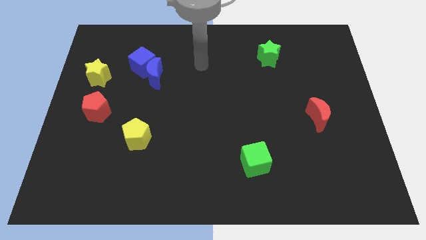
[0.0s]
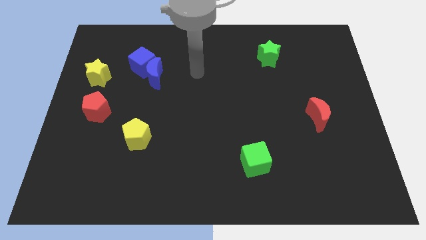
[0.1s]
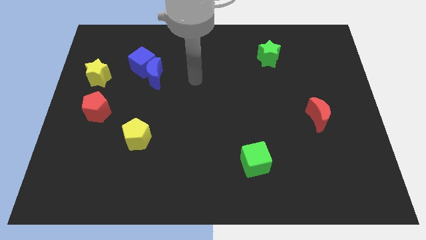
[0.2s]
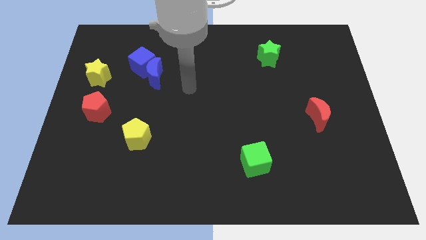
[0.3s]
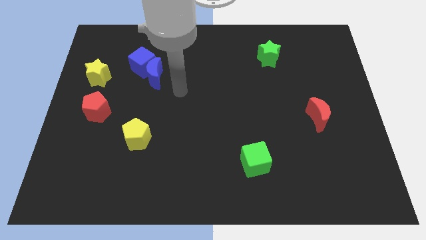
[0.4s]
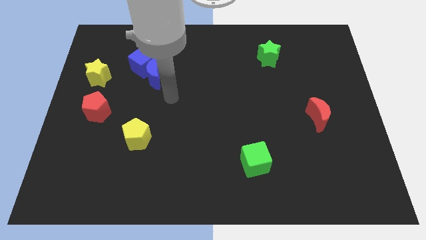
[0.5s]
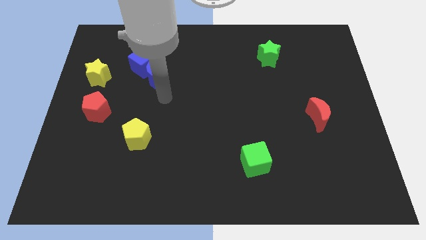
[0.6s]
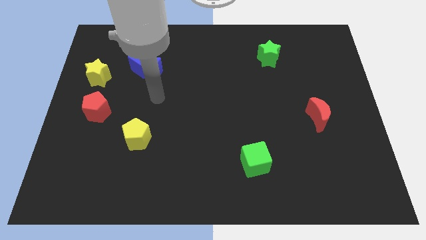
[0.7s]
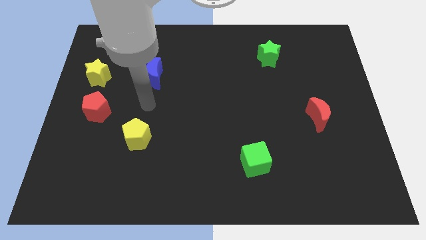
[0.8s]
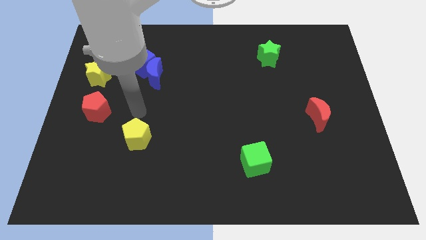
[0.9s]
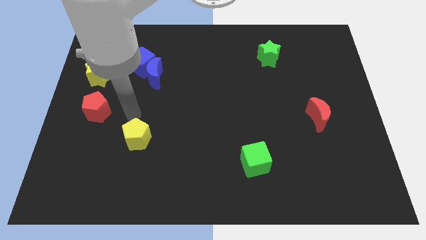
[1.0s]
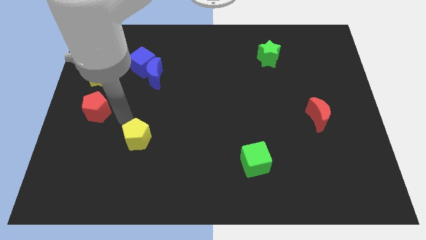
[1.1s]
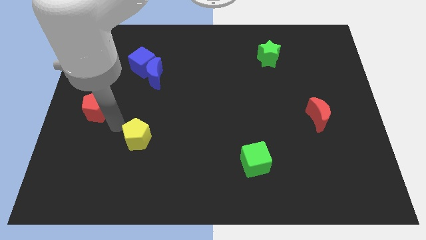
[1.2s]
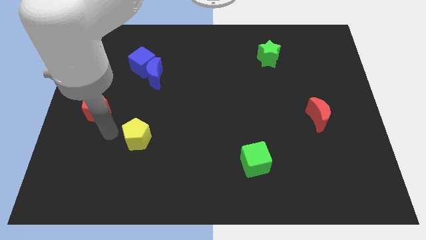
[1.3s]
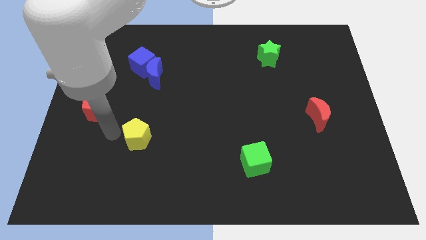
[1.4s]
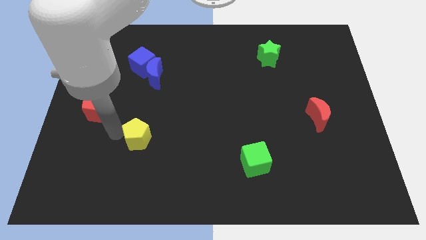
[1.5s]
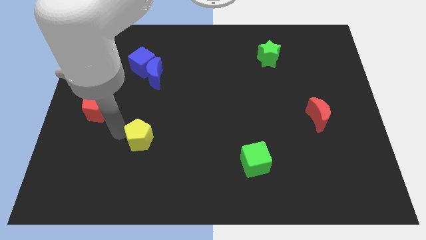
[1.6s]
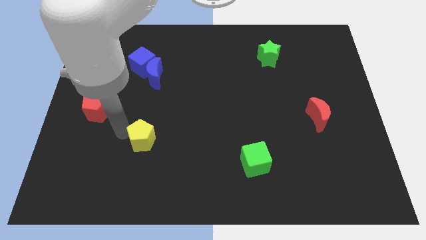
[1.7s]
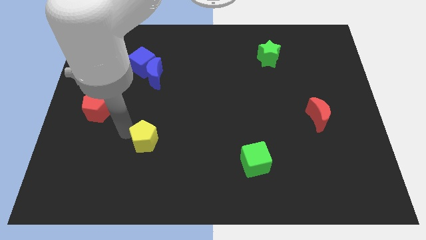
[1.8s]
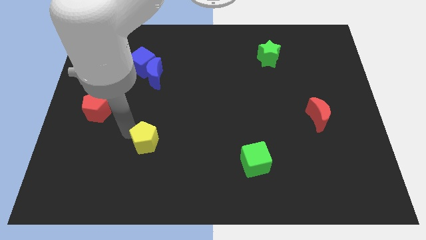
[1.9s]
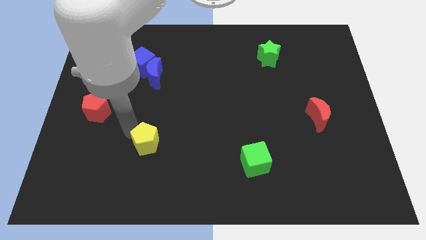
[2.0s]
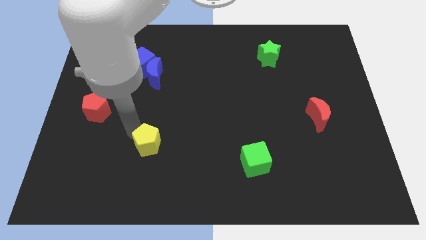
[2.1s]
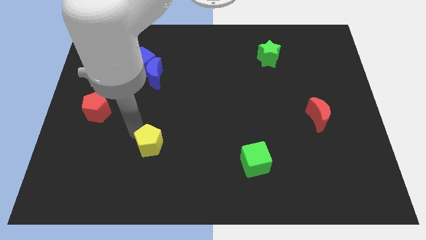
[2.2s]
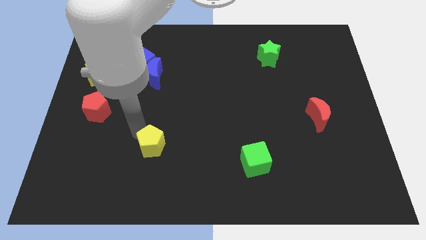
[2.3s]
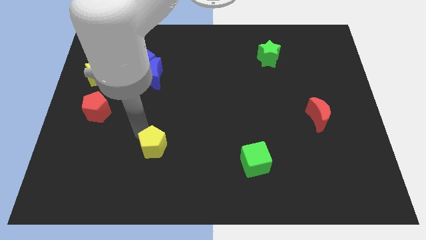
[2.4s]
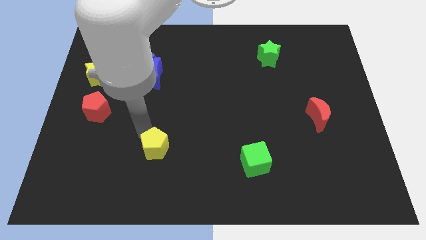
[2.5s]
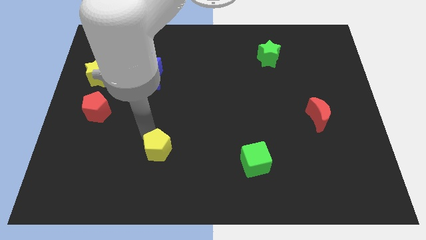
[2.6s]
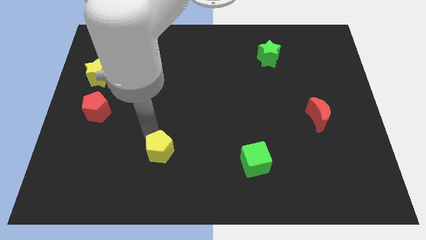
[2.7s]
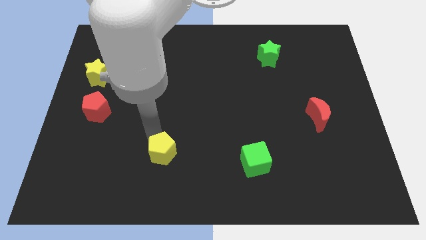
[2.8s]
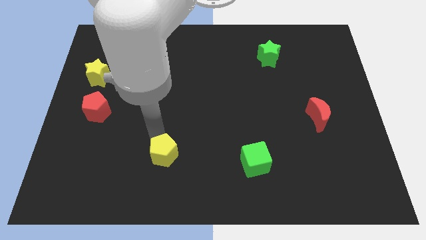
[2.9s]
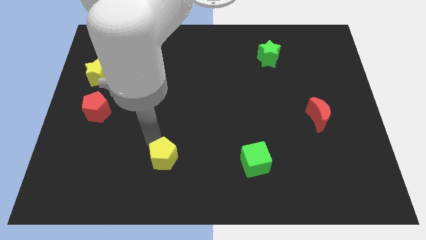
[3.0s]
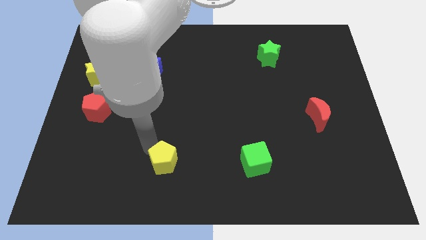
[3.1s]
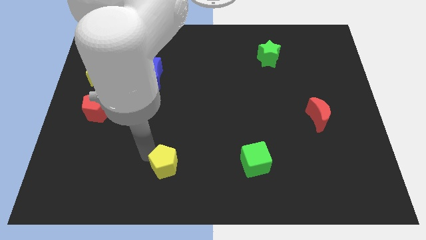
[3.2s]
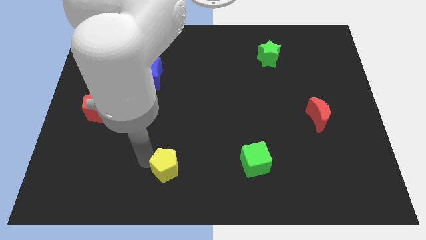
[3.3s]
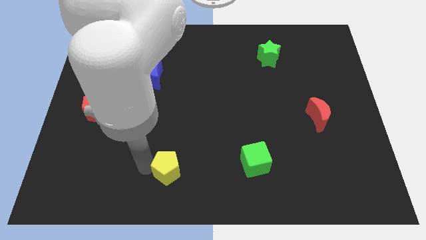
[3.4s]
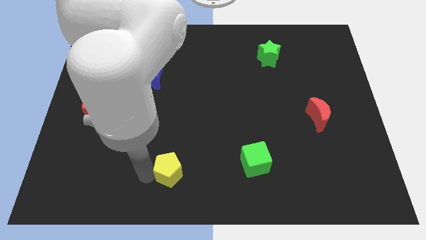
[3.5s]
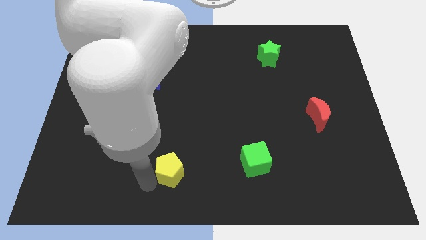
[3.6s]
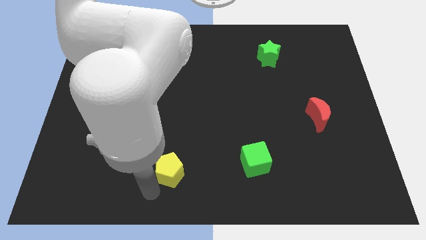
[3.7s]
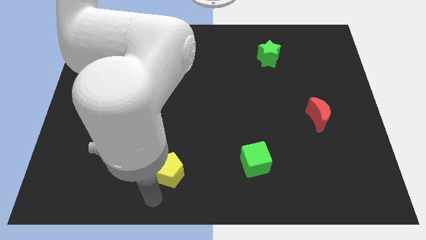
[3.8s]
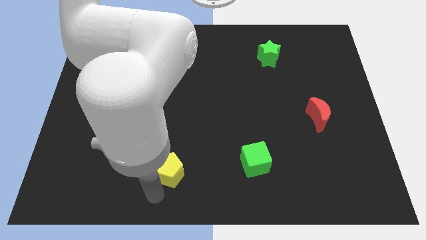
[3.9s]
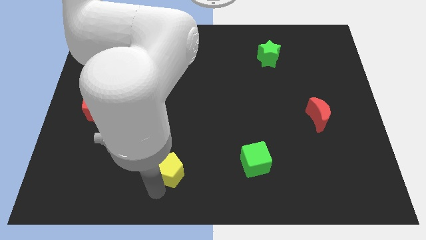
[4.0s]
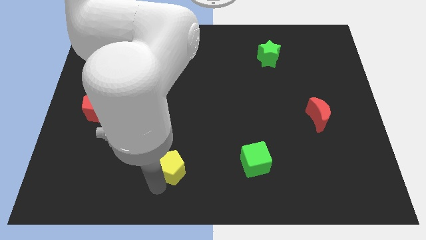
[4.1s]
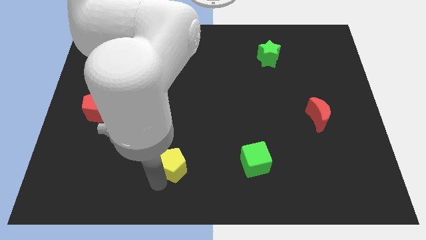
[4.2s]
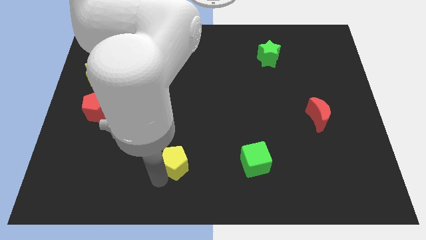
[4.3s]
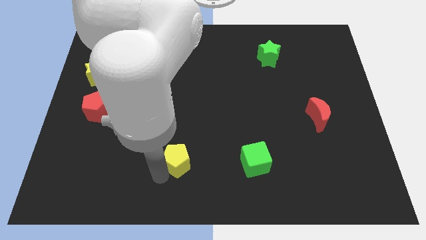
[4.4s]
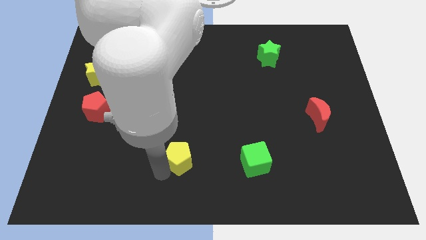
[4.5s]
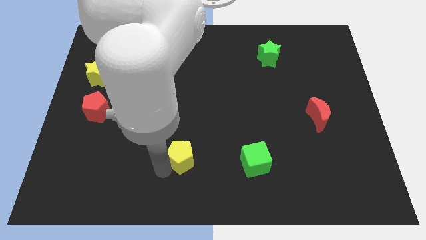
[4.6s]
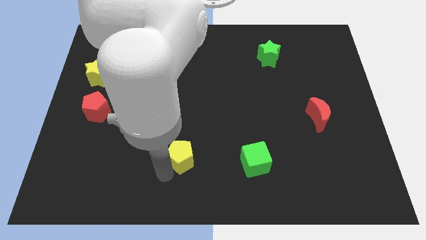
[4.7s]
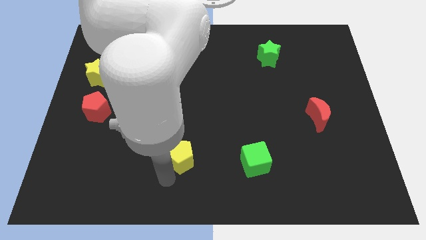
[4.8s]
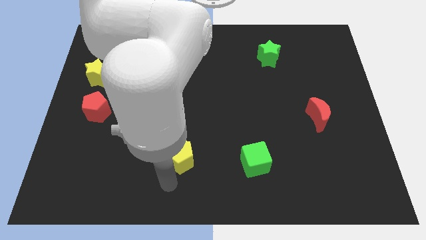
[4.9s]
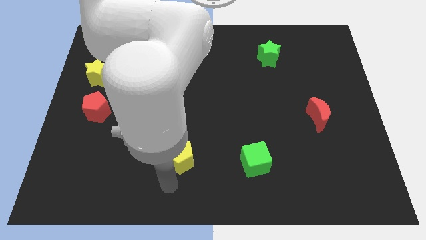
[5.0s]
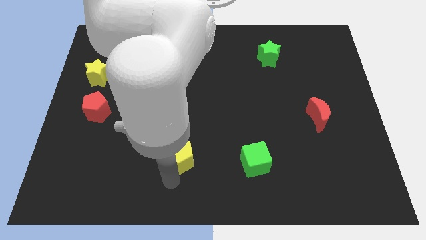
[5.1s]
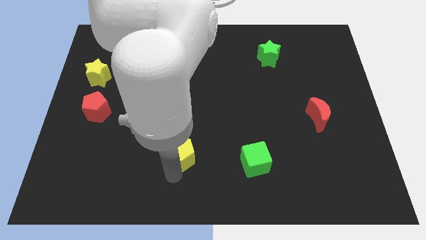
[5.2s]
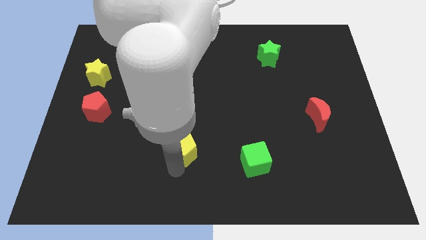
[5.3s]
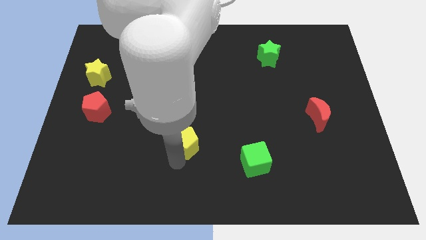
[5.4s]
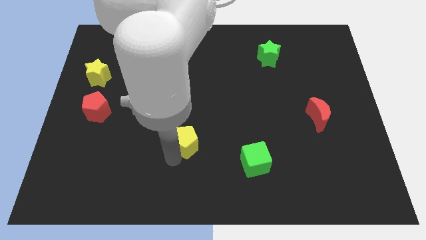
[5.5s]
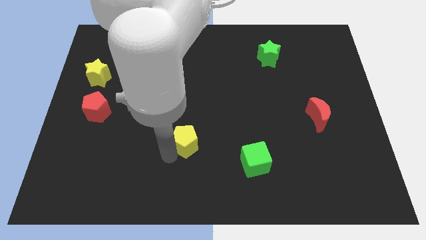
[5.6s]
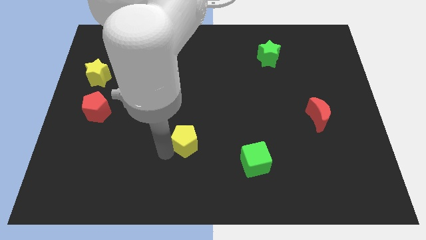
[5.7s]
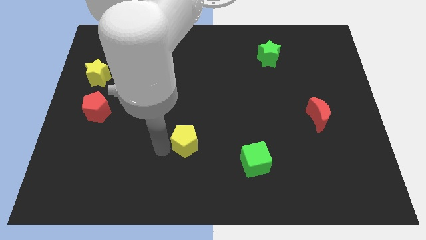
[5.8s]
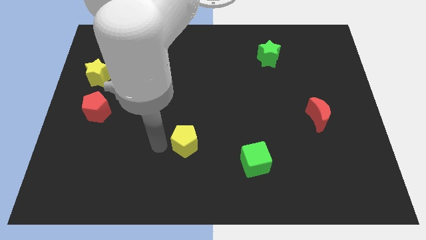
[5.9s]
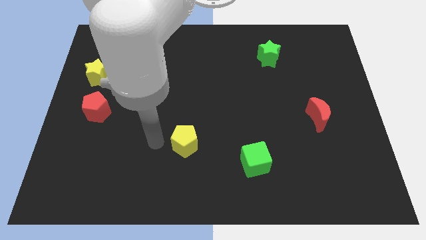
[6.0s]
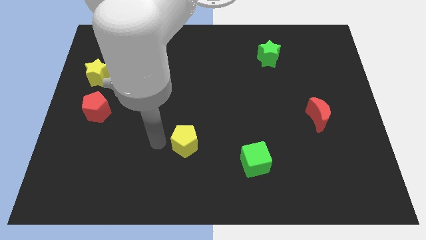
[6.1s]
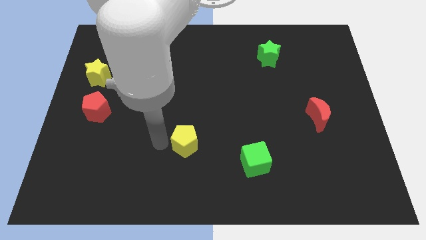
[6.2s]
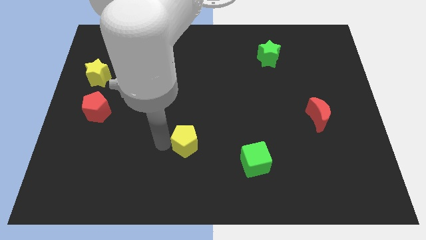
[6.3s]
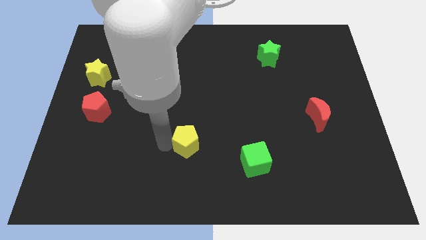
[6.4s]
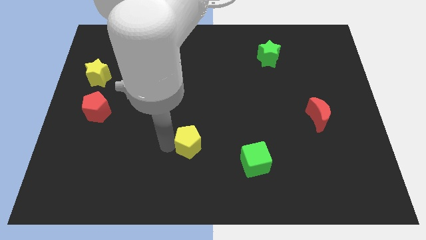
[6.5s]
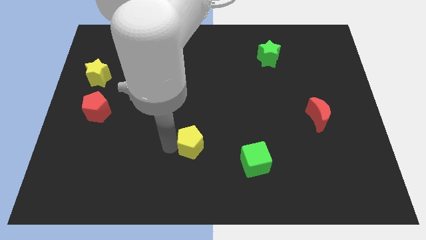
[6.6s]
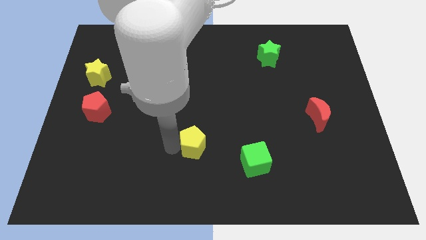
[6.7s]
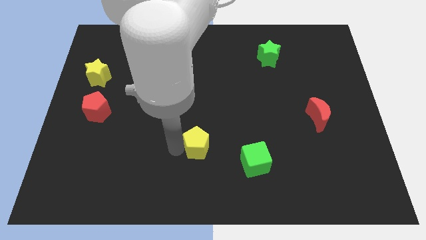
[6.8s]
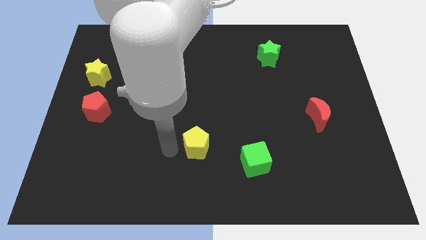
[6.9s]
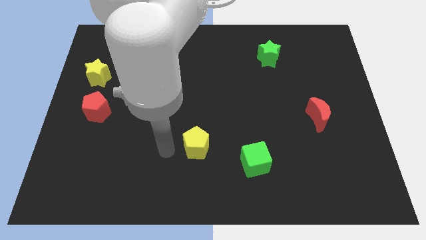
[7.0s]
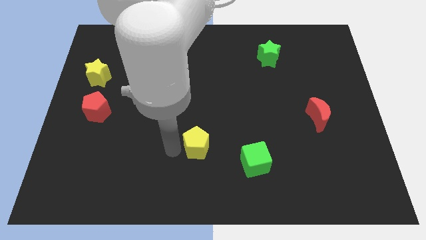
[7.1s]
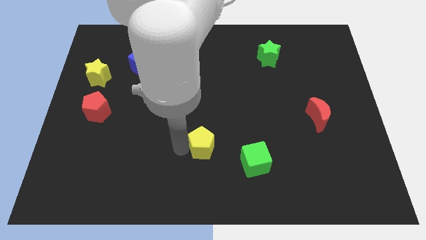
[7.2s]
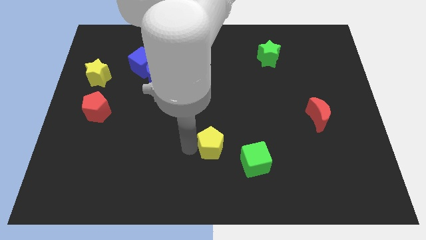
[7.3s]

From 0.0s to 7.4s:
slide the yellow pentagon diagonally up and to the left of the green cube

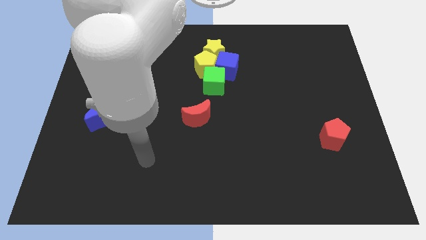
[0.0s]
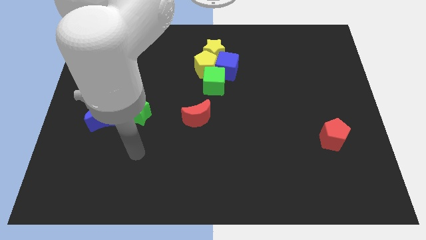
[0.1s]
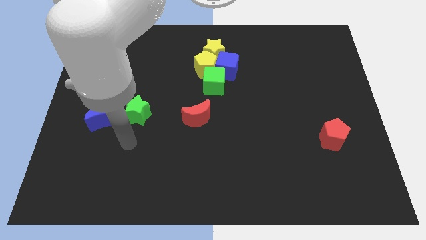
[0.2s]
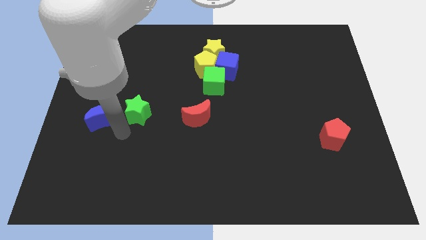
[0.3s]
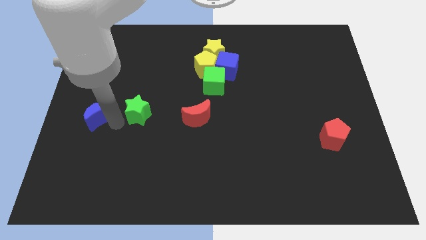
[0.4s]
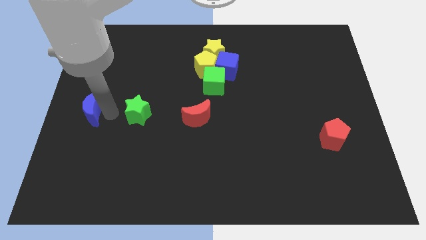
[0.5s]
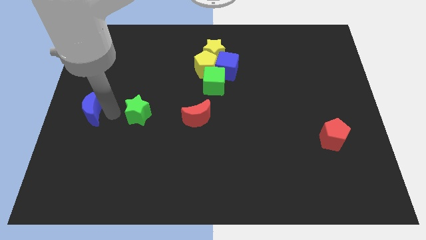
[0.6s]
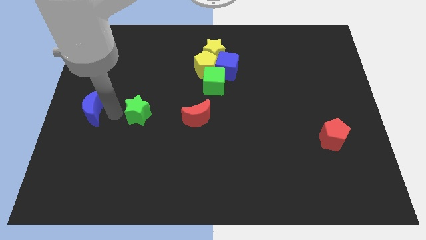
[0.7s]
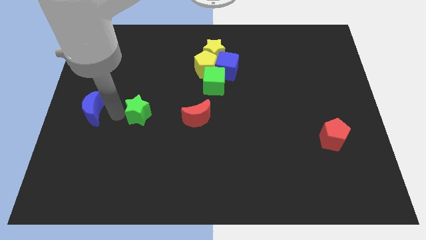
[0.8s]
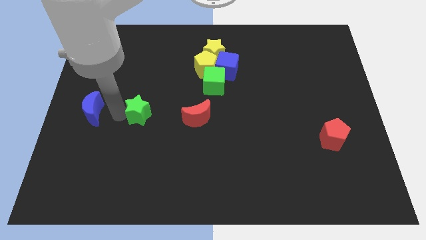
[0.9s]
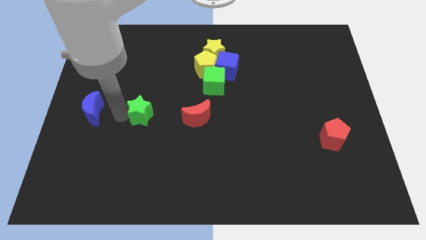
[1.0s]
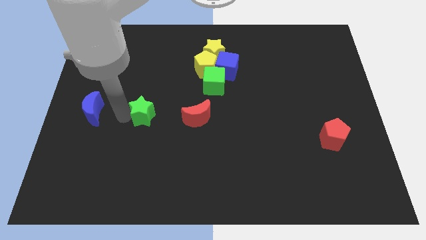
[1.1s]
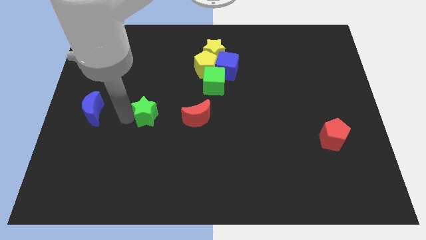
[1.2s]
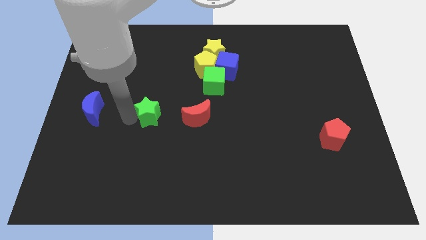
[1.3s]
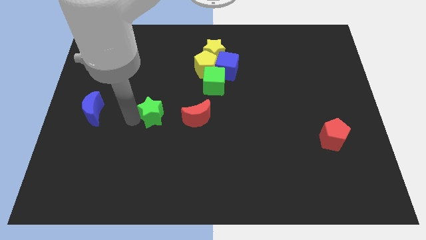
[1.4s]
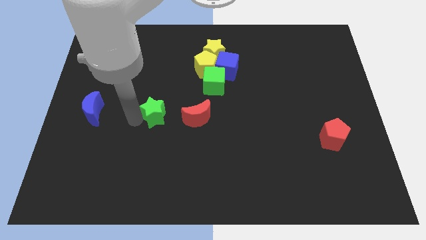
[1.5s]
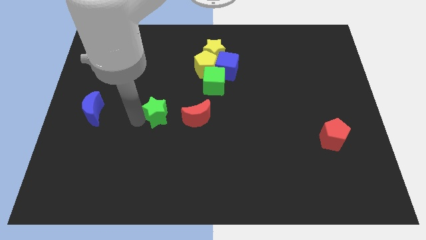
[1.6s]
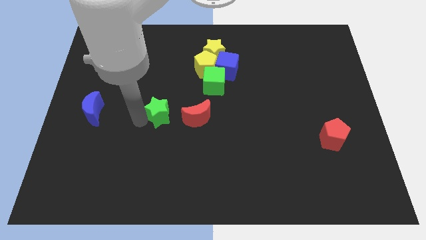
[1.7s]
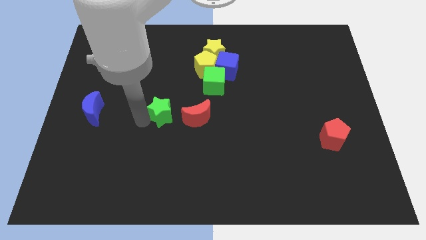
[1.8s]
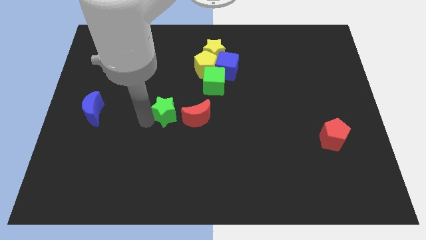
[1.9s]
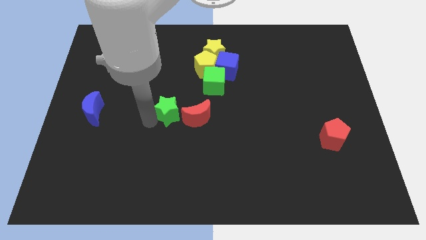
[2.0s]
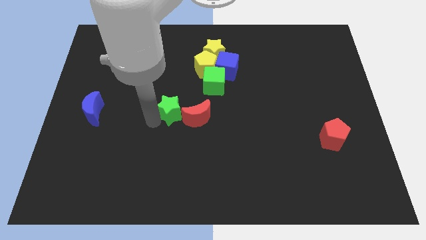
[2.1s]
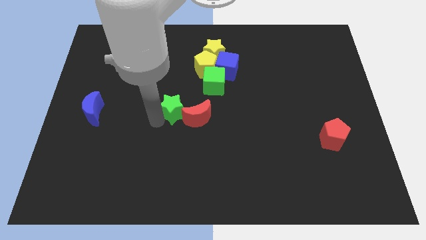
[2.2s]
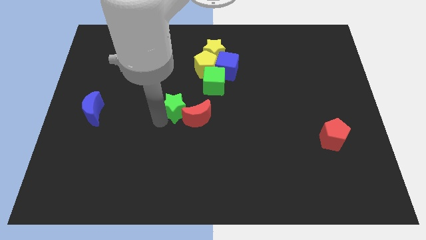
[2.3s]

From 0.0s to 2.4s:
slide the green star to the bottom left side of the green cube
